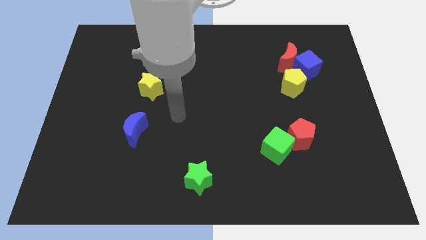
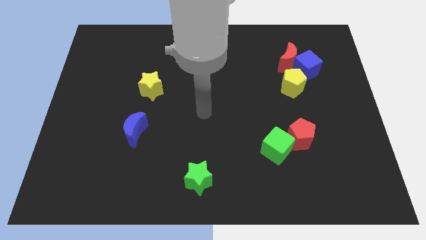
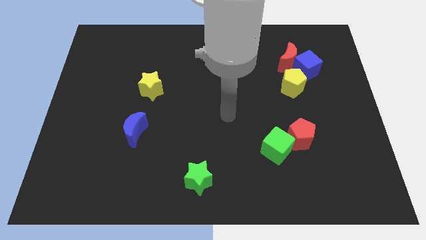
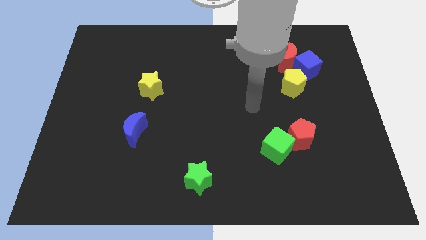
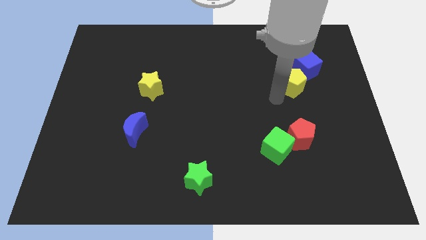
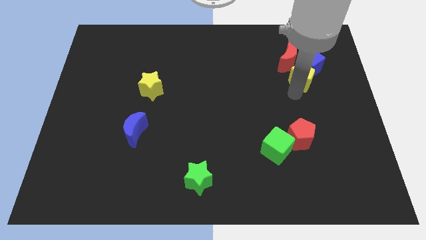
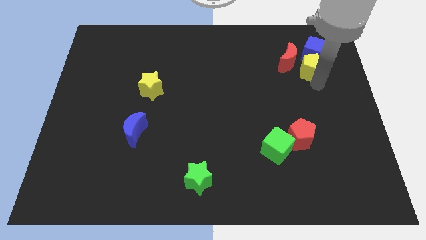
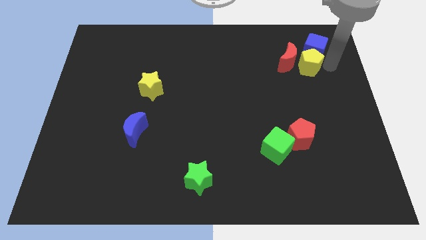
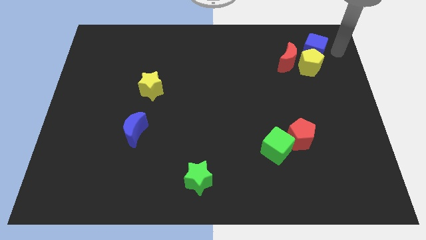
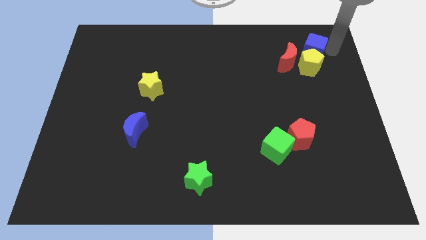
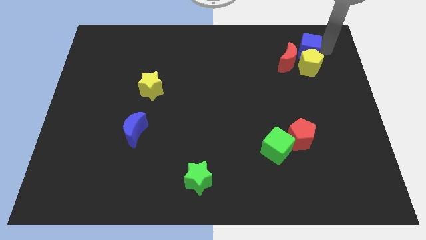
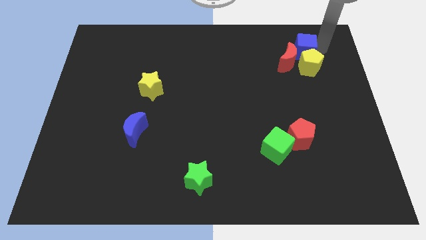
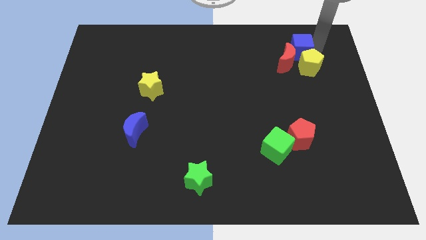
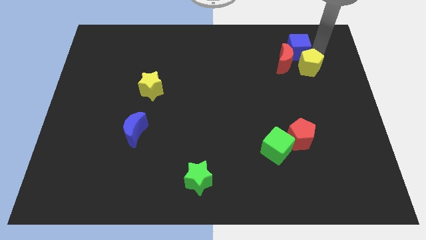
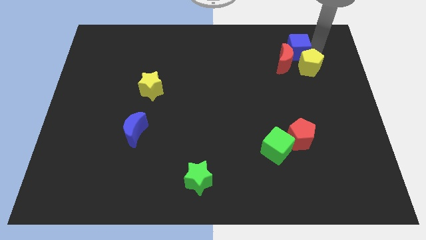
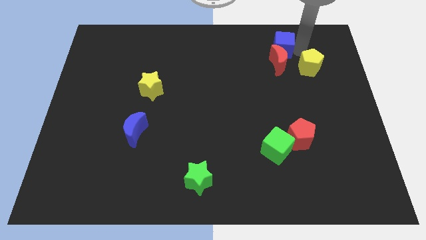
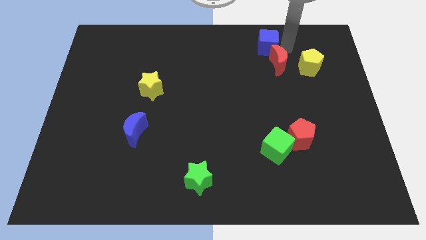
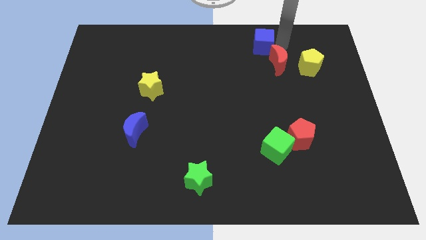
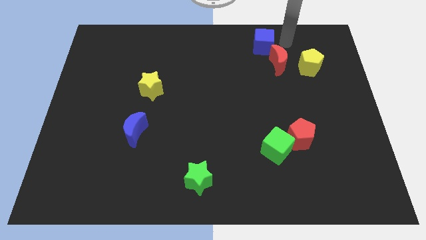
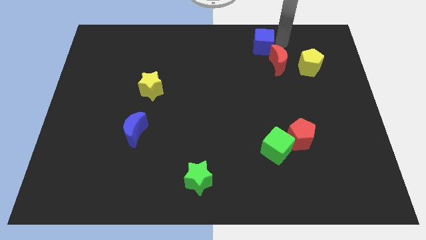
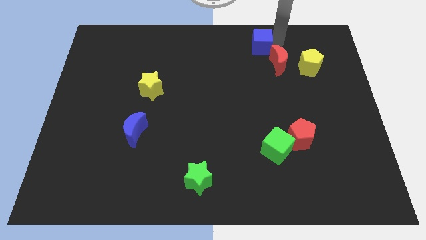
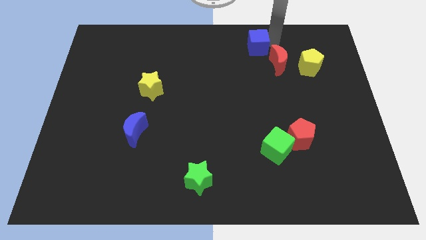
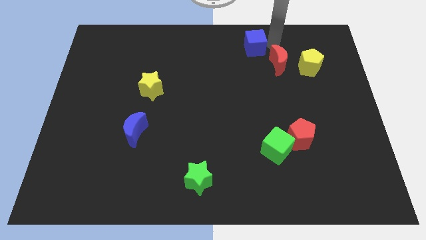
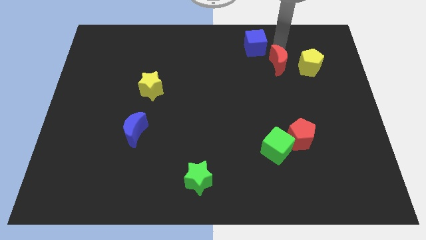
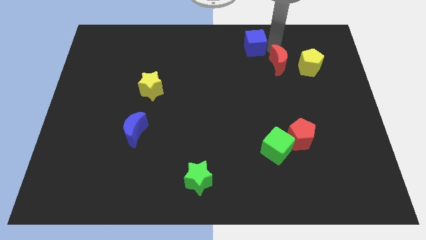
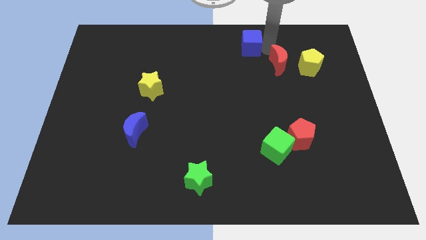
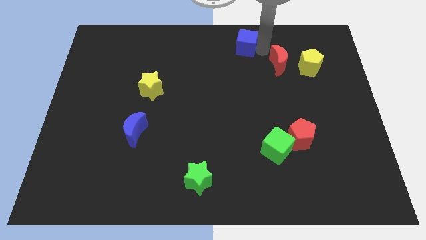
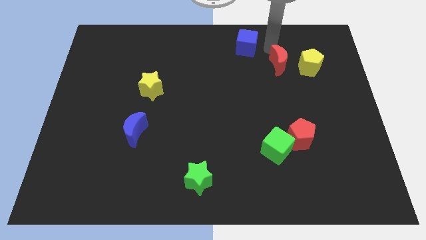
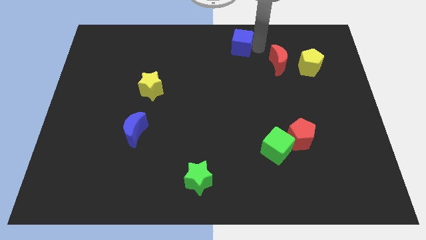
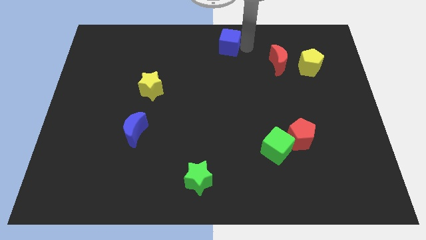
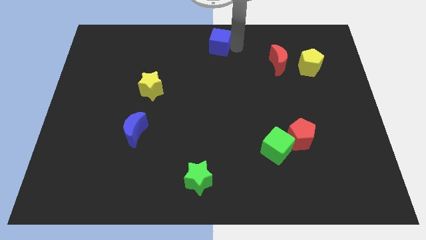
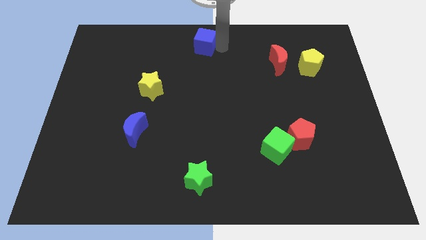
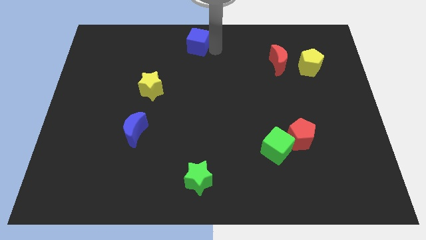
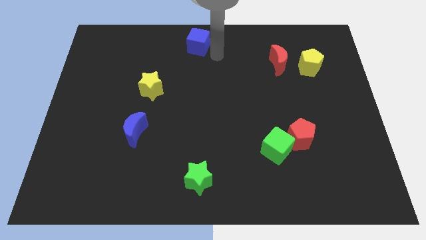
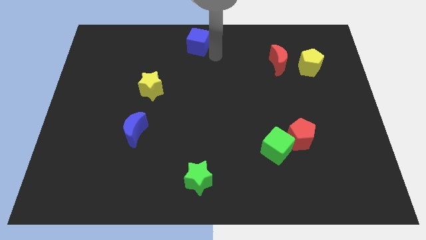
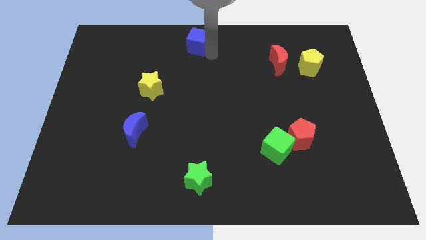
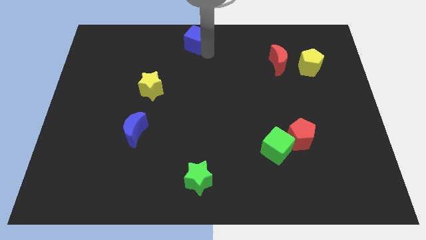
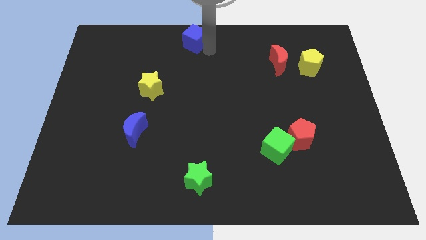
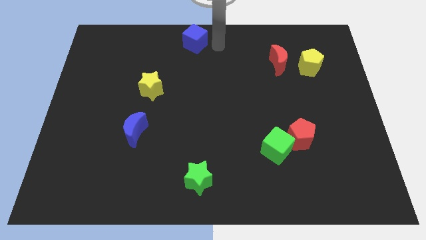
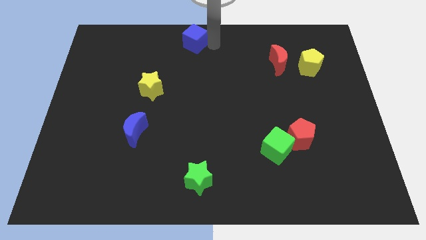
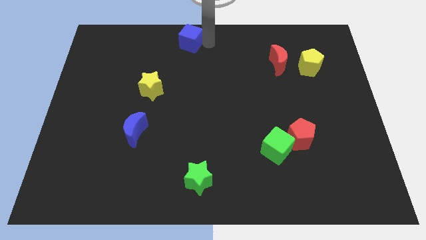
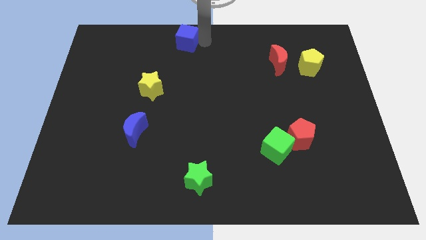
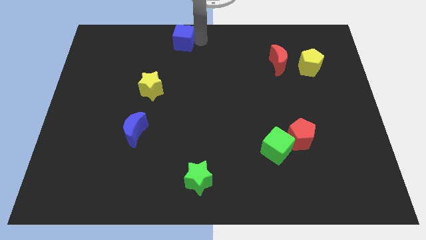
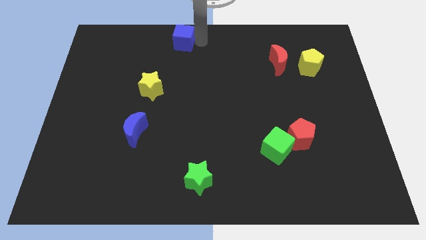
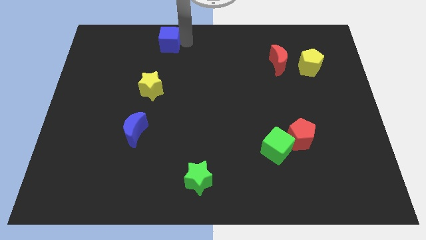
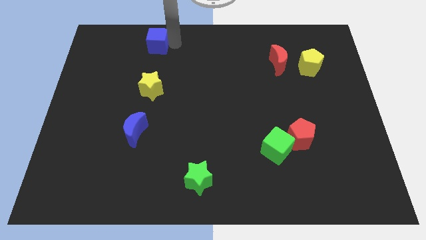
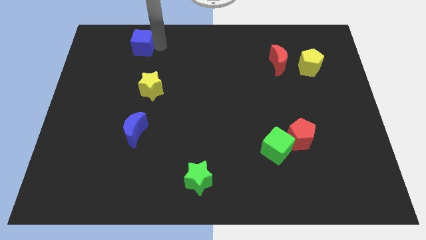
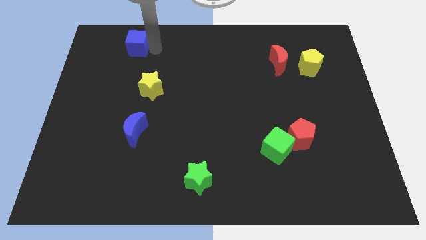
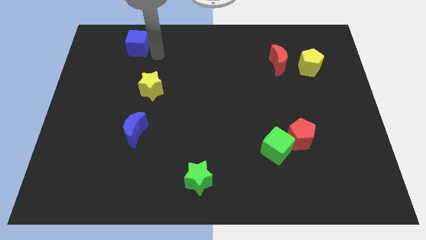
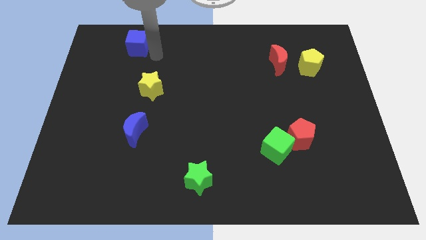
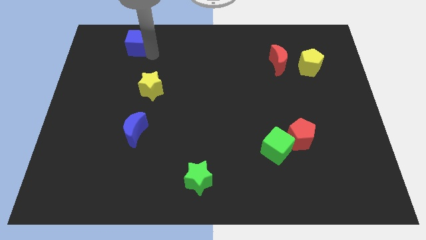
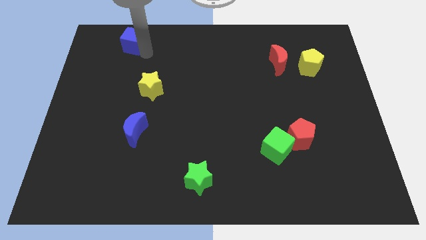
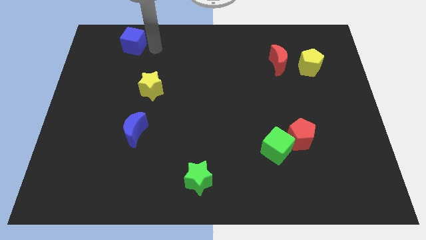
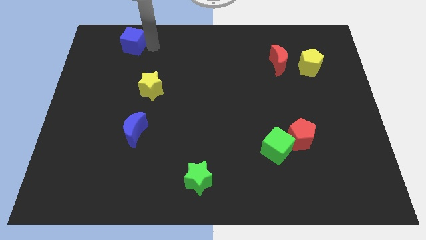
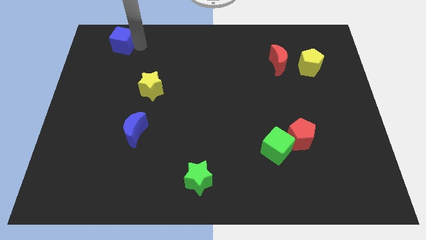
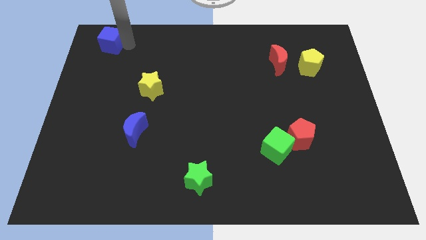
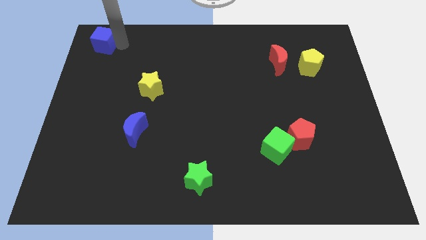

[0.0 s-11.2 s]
move the blue cube to the top left corner
